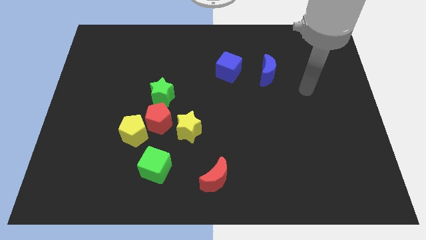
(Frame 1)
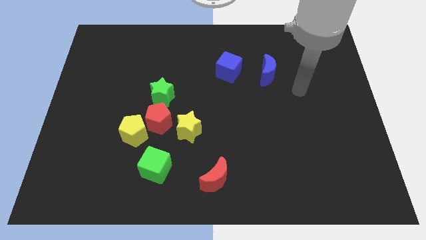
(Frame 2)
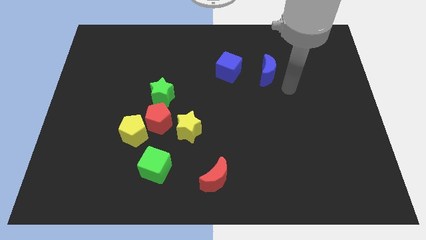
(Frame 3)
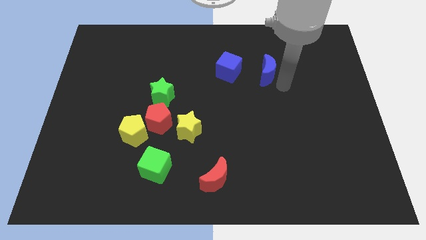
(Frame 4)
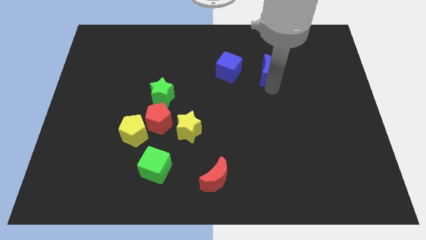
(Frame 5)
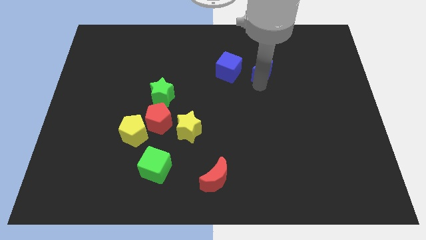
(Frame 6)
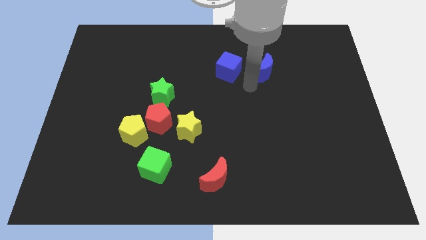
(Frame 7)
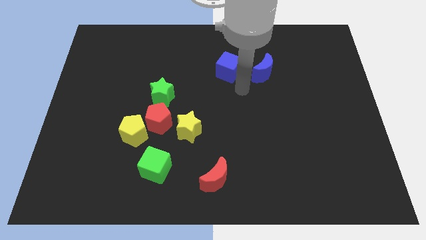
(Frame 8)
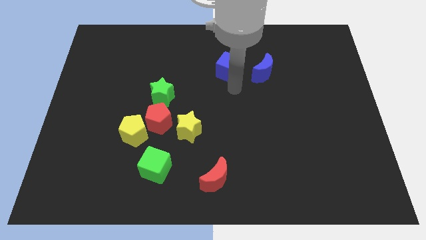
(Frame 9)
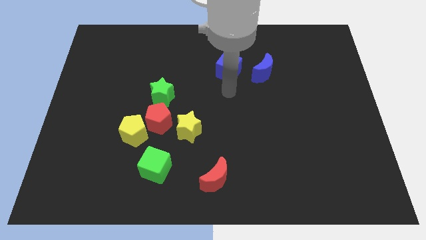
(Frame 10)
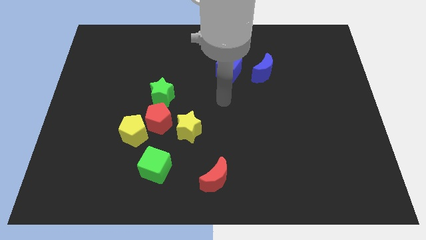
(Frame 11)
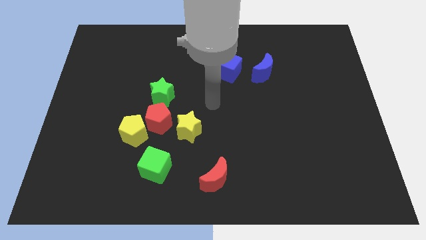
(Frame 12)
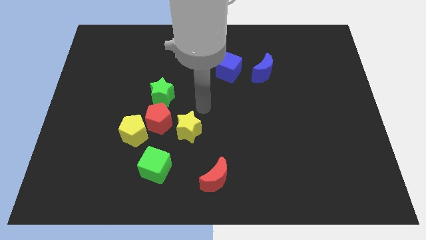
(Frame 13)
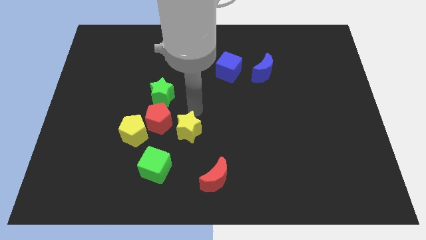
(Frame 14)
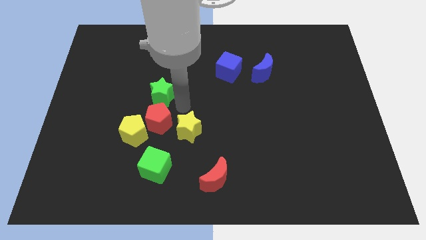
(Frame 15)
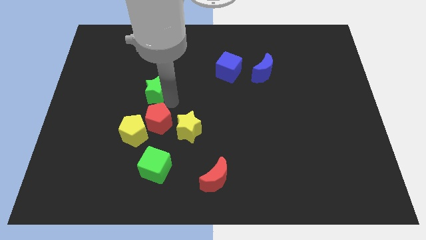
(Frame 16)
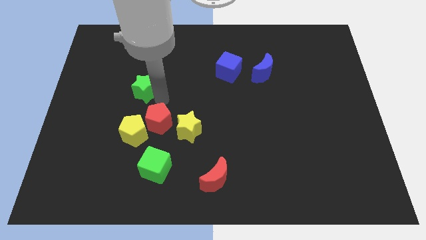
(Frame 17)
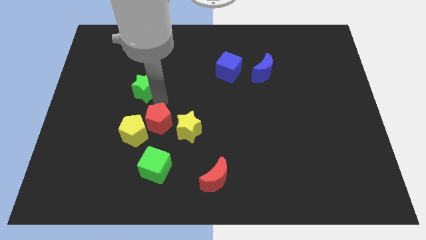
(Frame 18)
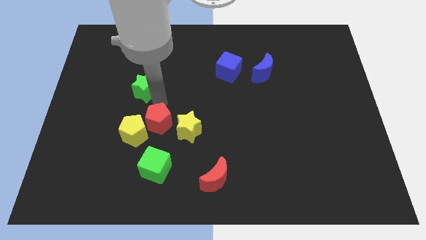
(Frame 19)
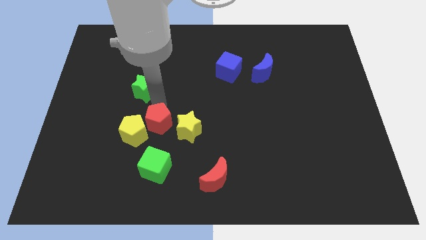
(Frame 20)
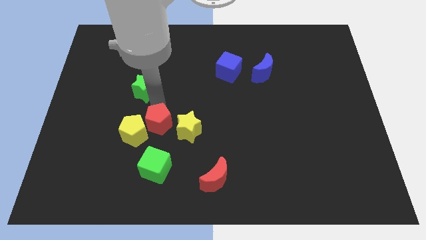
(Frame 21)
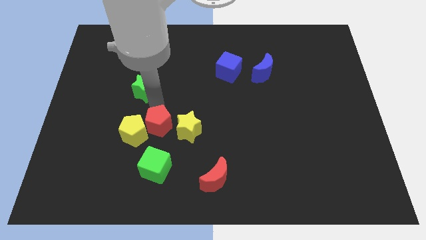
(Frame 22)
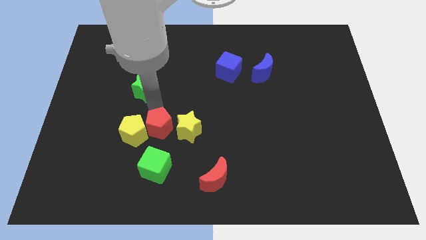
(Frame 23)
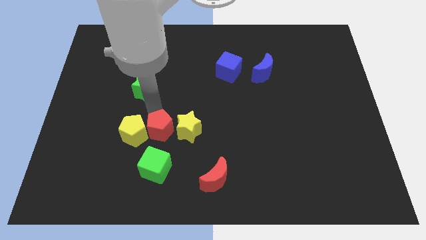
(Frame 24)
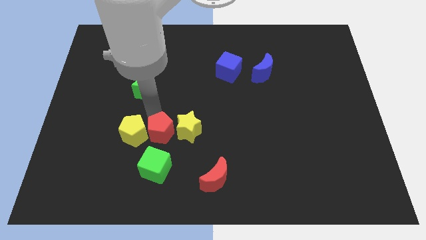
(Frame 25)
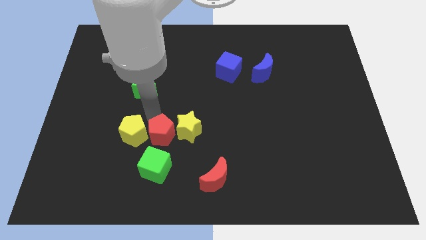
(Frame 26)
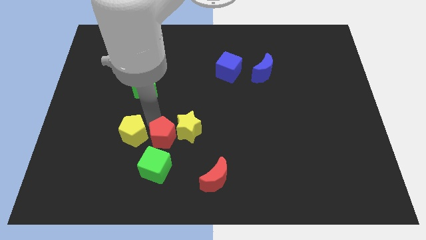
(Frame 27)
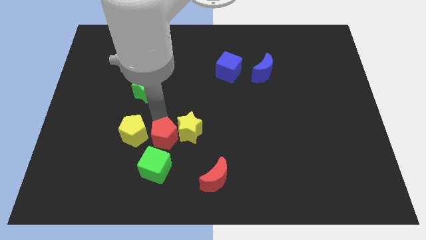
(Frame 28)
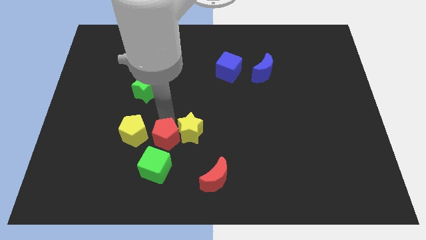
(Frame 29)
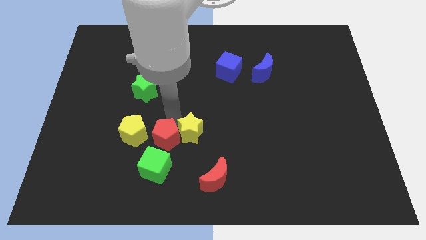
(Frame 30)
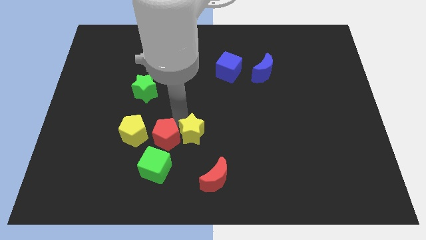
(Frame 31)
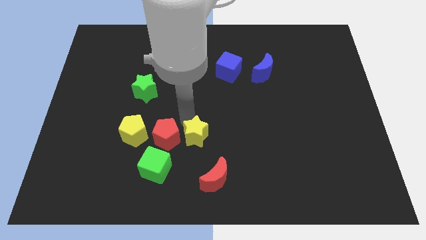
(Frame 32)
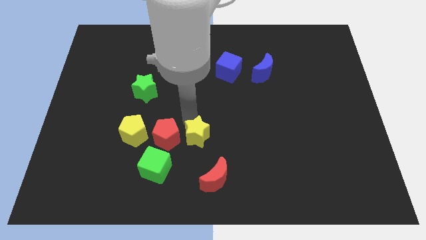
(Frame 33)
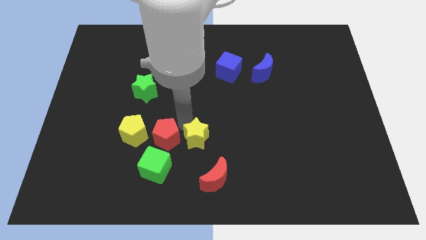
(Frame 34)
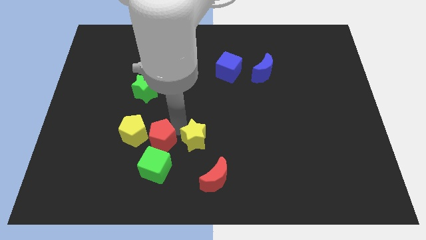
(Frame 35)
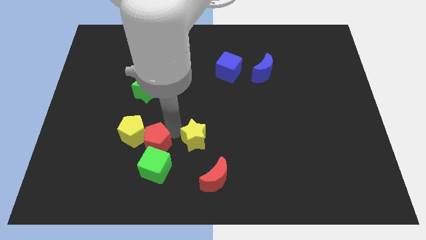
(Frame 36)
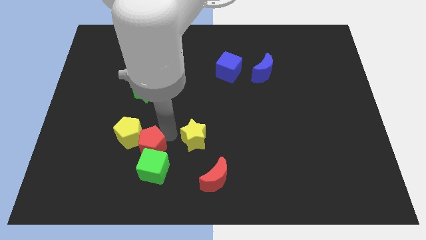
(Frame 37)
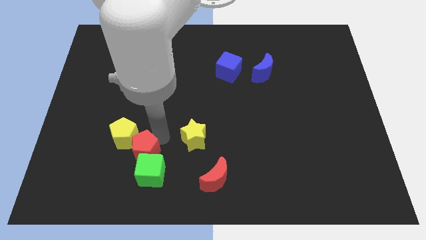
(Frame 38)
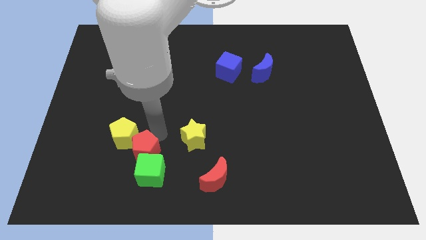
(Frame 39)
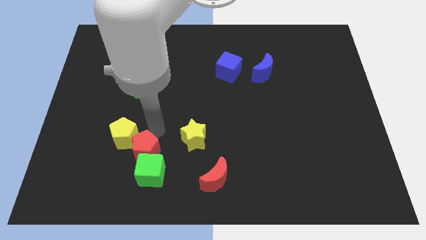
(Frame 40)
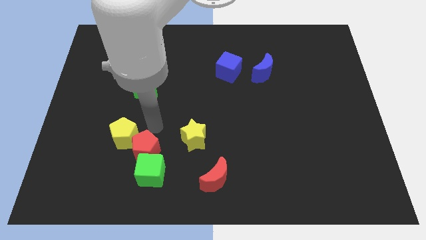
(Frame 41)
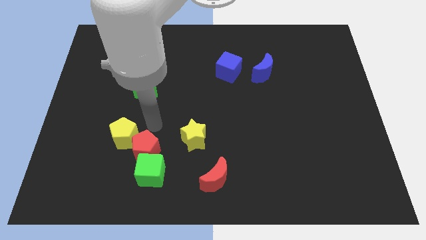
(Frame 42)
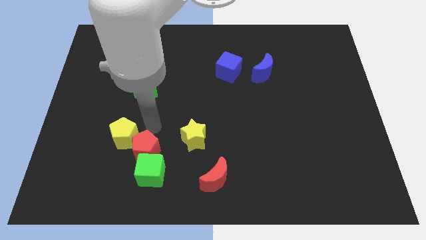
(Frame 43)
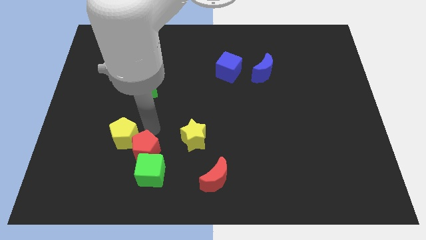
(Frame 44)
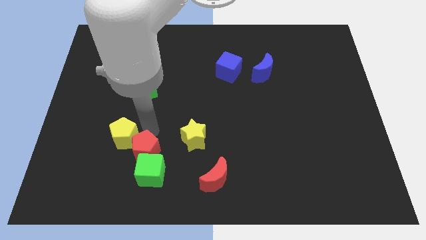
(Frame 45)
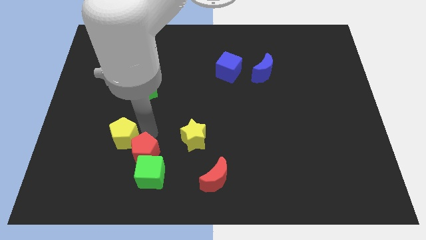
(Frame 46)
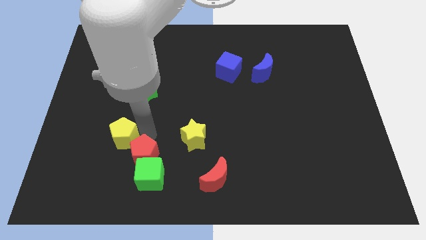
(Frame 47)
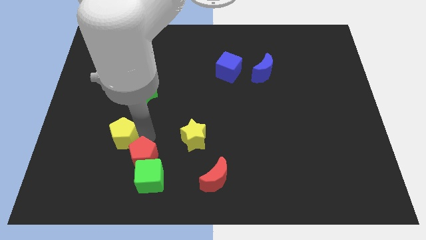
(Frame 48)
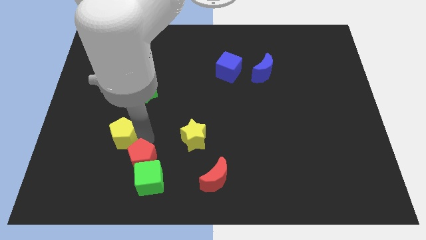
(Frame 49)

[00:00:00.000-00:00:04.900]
move the red pentagon away from the group

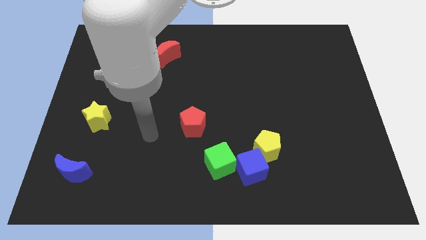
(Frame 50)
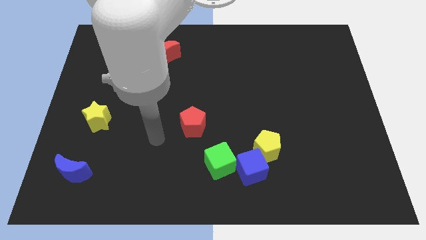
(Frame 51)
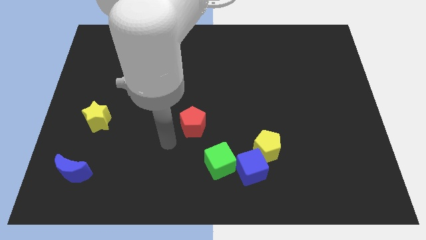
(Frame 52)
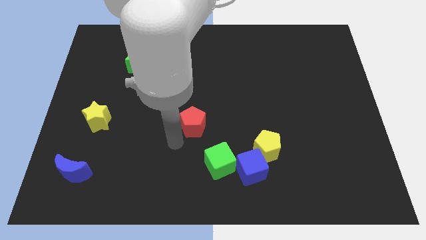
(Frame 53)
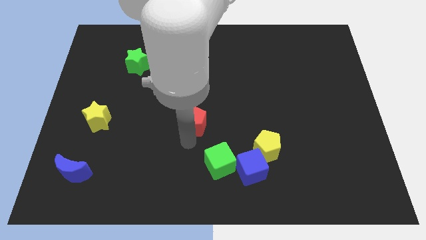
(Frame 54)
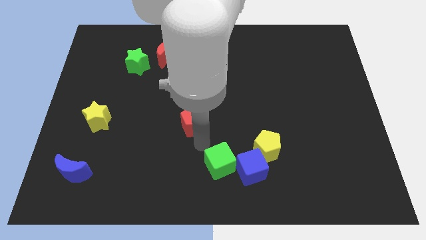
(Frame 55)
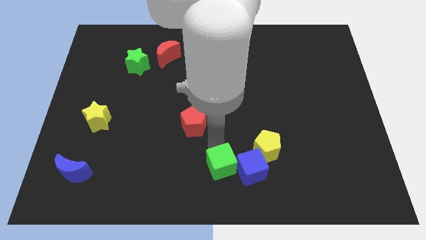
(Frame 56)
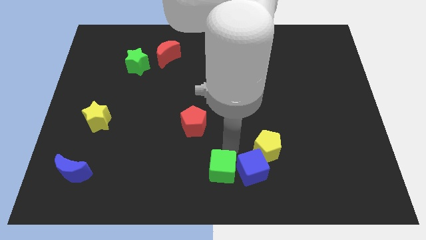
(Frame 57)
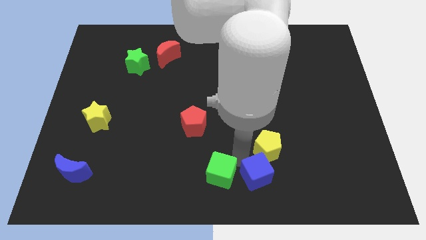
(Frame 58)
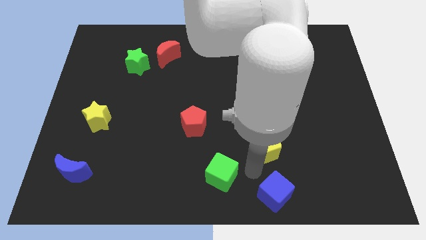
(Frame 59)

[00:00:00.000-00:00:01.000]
pull the yellow pentagon apart from the blue cube

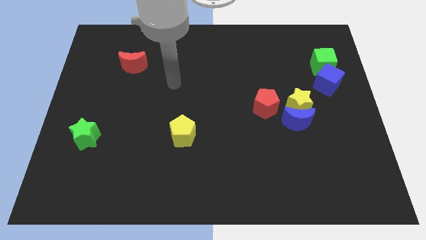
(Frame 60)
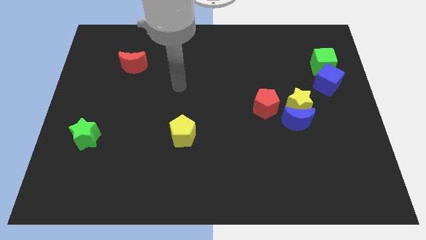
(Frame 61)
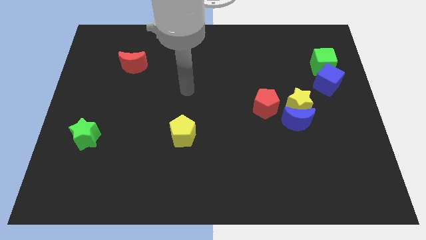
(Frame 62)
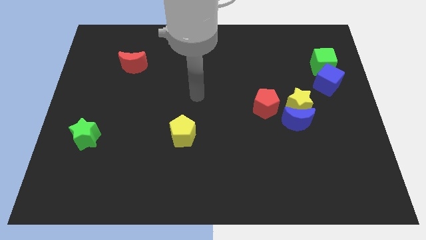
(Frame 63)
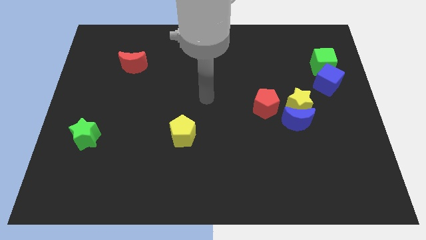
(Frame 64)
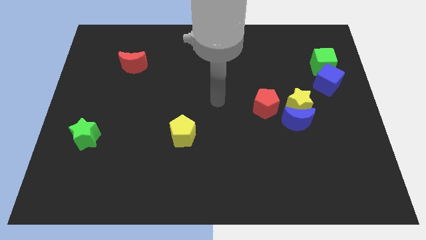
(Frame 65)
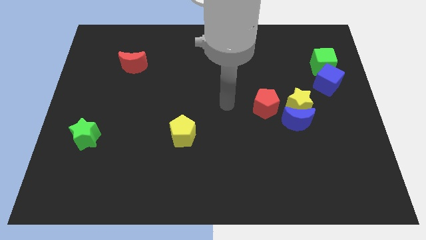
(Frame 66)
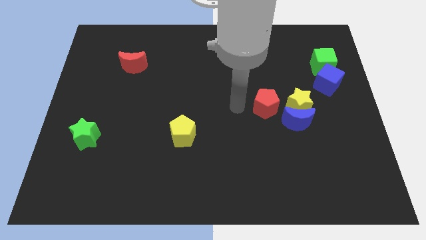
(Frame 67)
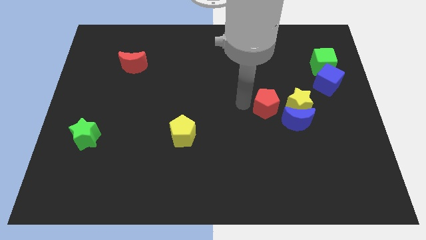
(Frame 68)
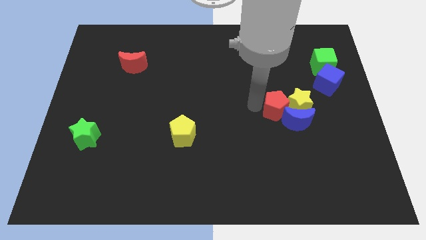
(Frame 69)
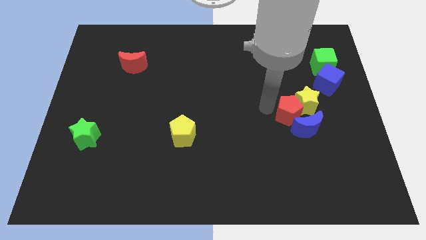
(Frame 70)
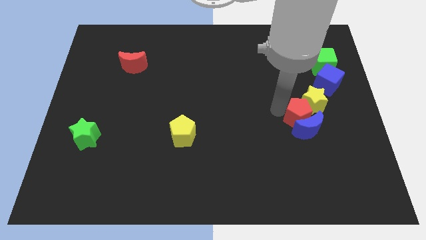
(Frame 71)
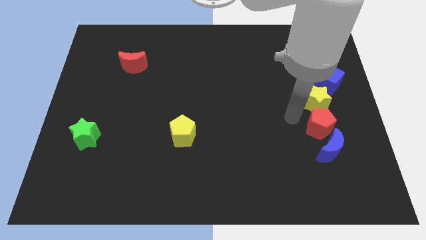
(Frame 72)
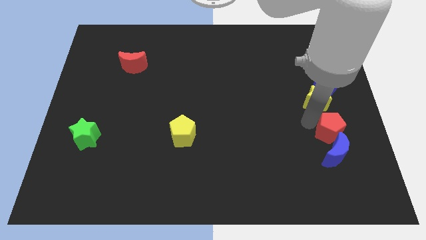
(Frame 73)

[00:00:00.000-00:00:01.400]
move the yellow star away from the blue moon and red pentagon

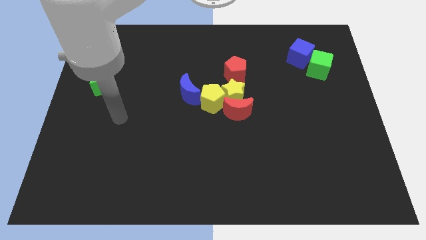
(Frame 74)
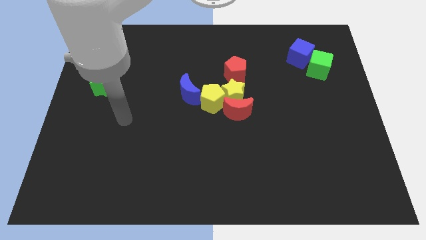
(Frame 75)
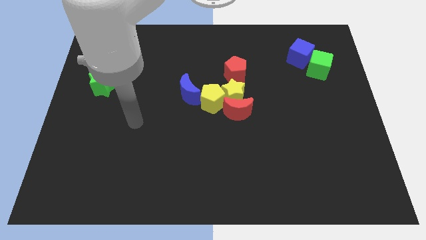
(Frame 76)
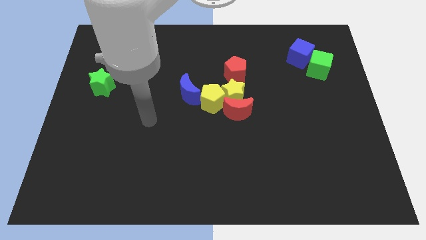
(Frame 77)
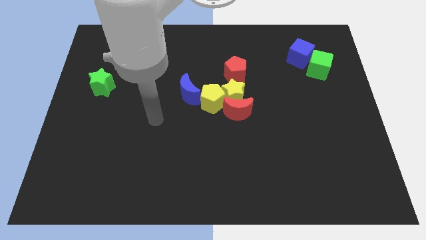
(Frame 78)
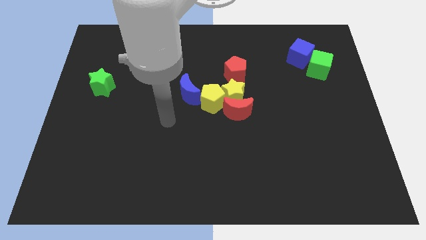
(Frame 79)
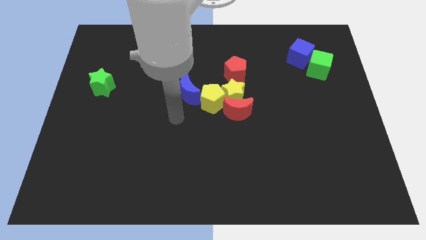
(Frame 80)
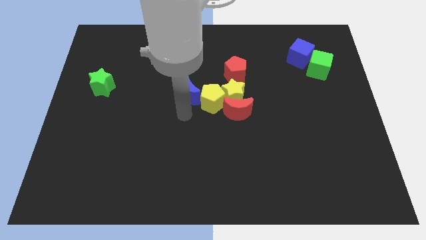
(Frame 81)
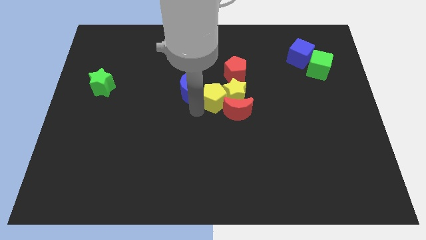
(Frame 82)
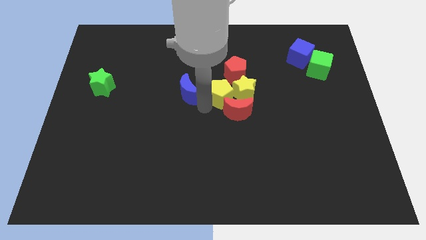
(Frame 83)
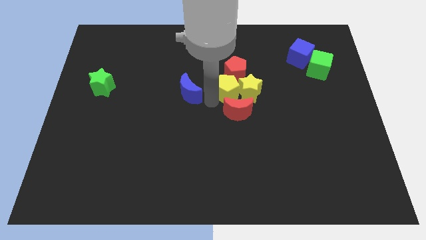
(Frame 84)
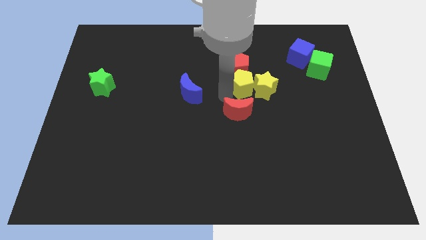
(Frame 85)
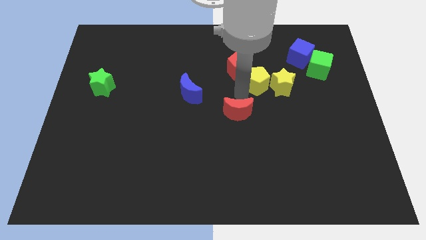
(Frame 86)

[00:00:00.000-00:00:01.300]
pull the red moon apart from the yellow star and yellow pentagon

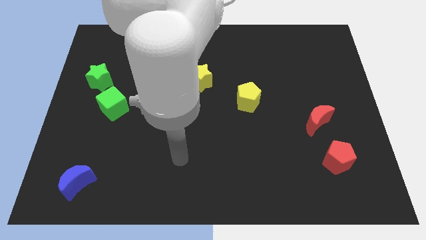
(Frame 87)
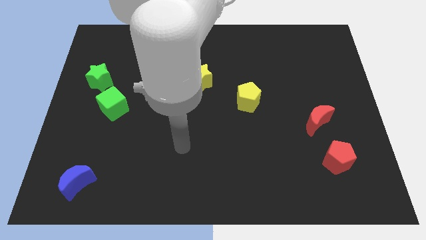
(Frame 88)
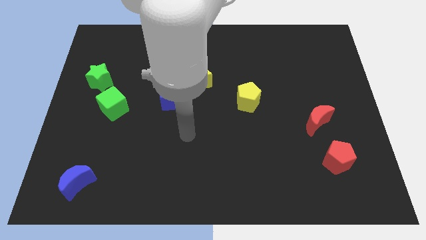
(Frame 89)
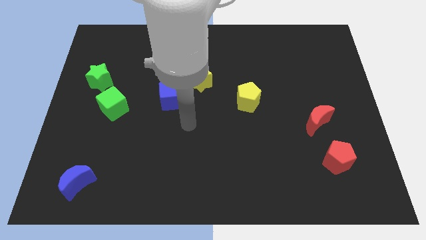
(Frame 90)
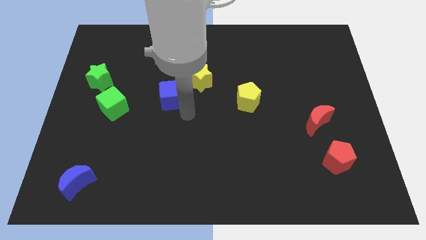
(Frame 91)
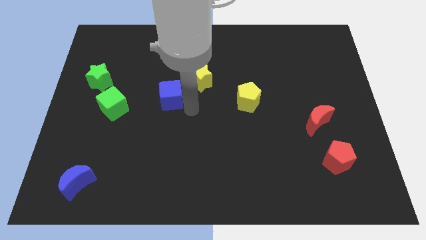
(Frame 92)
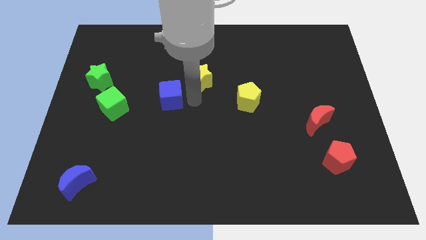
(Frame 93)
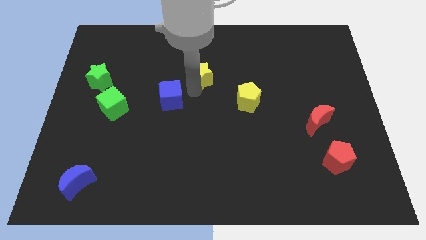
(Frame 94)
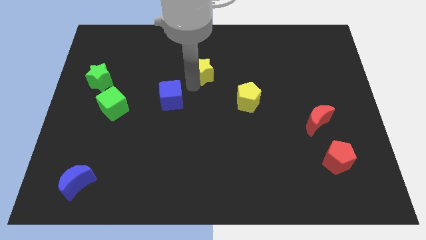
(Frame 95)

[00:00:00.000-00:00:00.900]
pull the blue cube apart from the yellow star

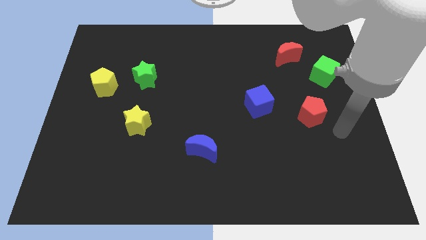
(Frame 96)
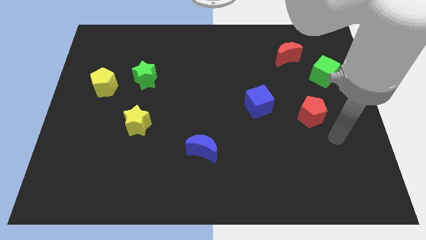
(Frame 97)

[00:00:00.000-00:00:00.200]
separate the green star from the yellow pentagon
